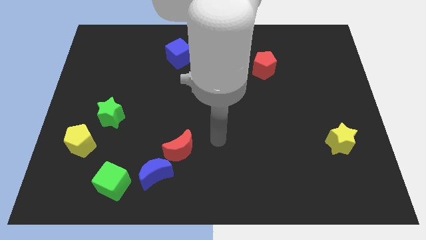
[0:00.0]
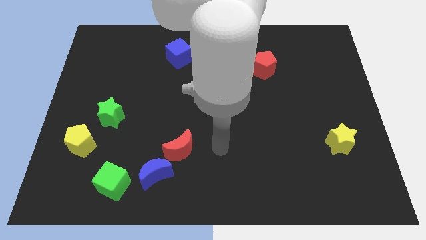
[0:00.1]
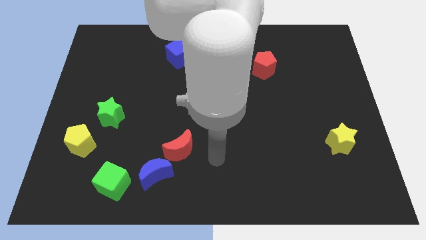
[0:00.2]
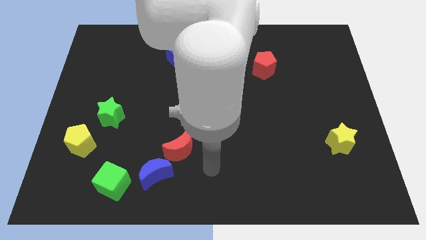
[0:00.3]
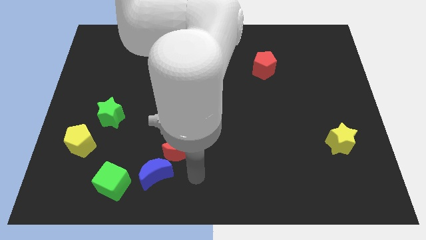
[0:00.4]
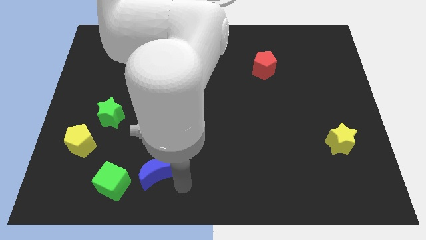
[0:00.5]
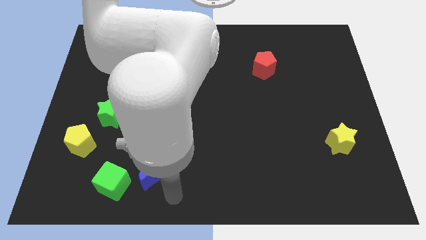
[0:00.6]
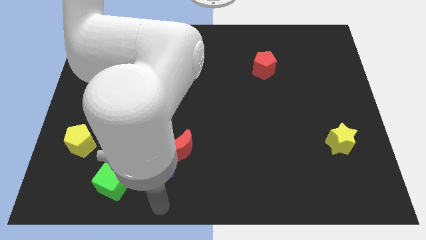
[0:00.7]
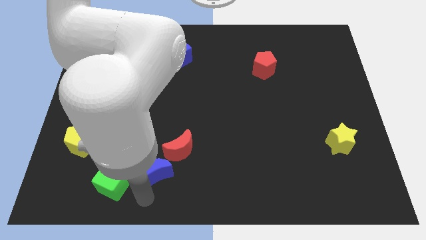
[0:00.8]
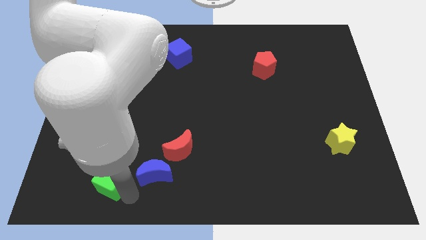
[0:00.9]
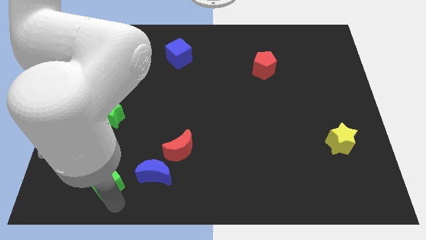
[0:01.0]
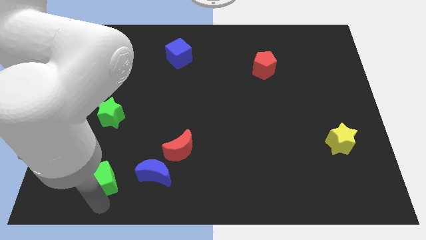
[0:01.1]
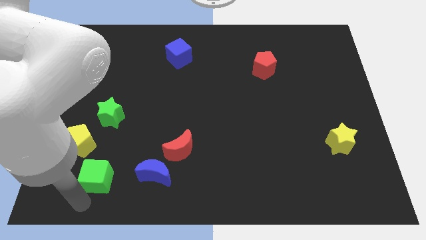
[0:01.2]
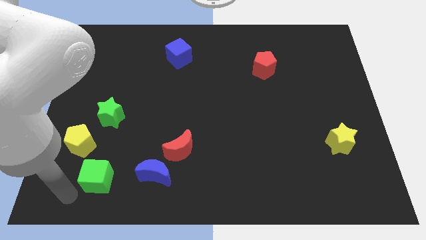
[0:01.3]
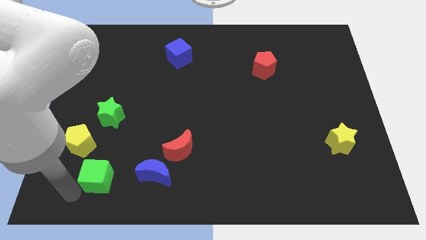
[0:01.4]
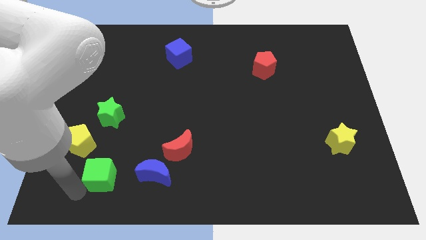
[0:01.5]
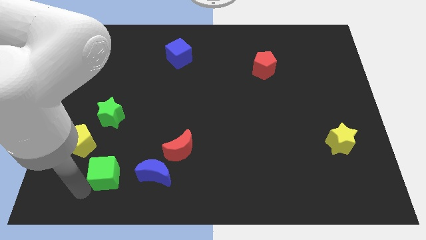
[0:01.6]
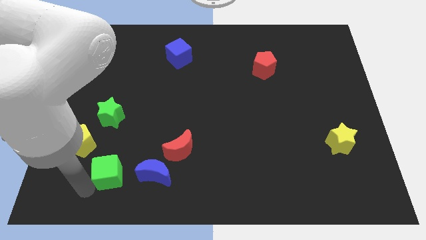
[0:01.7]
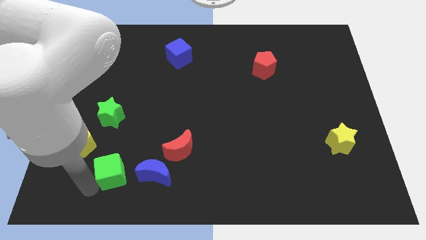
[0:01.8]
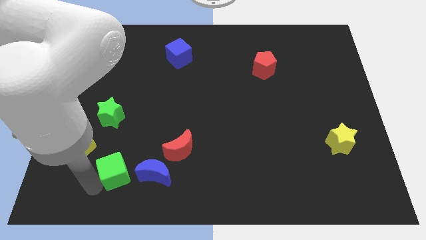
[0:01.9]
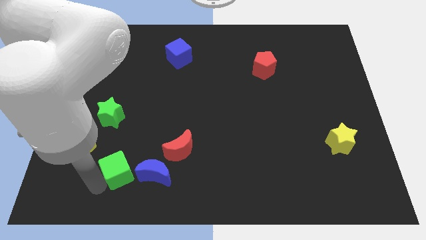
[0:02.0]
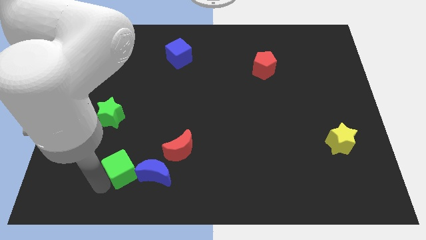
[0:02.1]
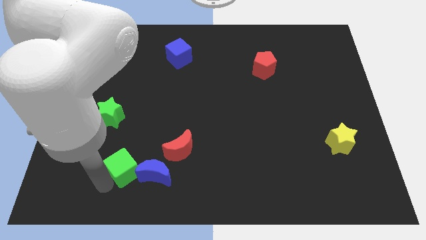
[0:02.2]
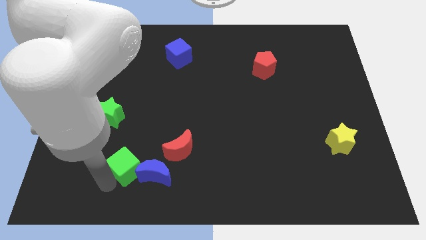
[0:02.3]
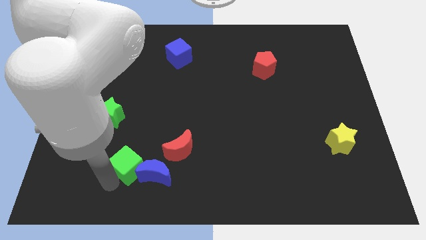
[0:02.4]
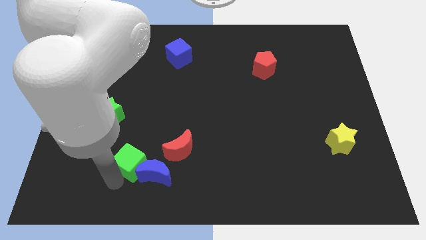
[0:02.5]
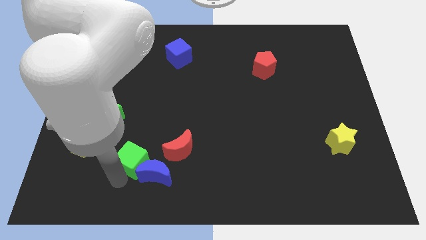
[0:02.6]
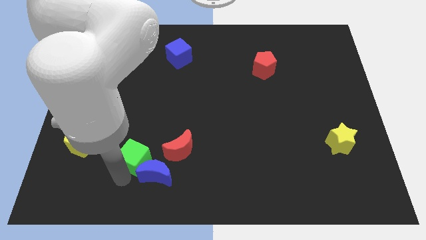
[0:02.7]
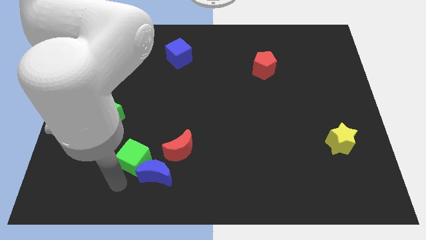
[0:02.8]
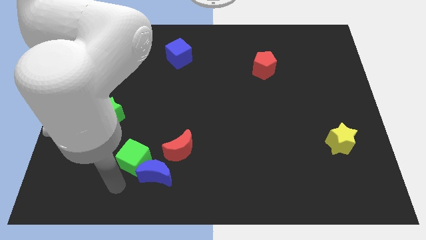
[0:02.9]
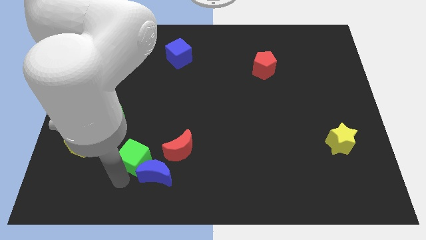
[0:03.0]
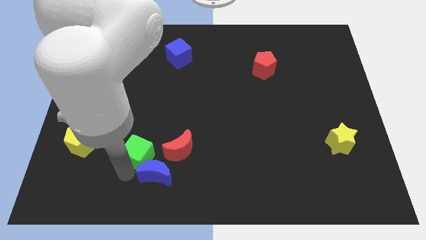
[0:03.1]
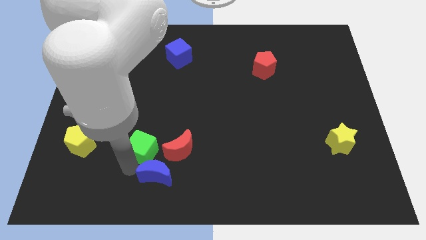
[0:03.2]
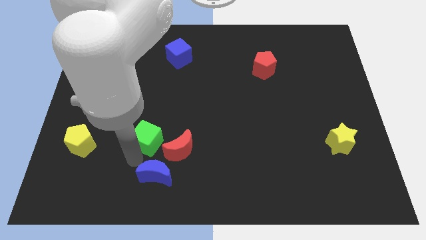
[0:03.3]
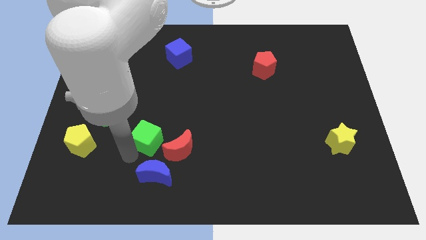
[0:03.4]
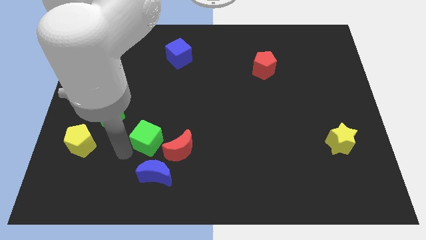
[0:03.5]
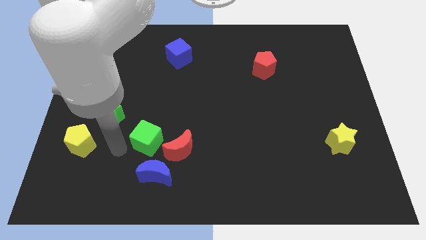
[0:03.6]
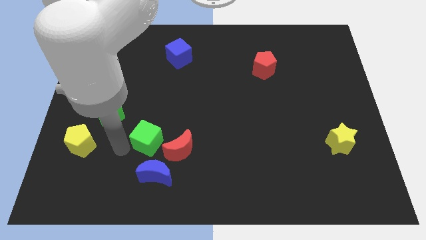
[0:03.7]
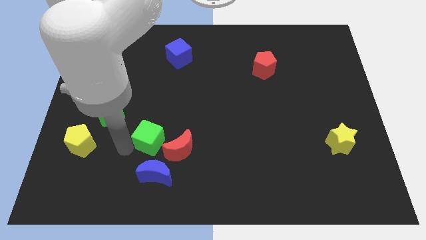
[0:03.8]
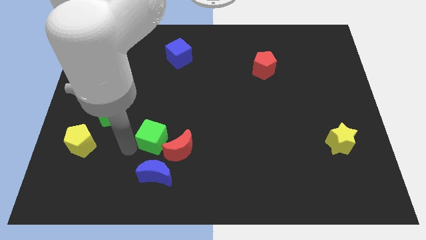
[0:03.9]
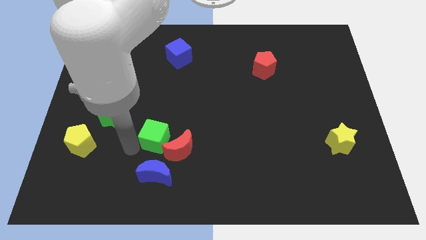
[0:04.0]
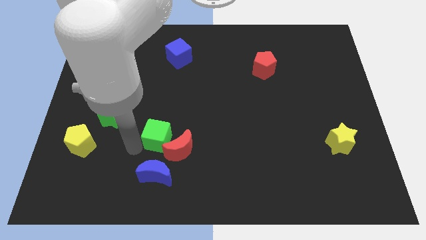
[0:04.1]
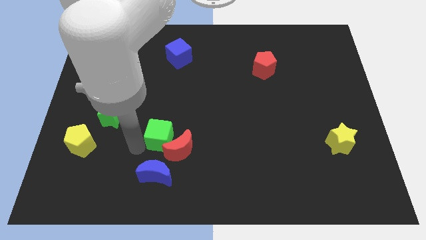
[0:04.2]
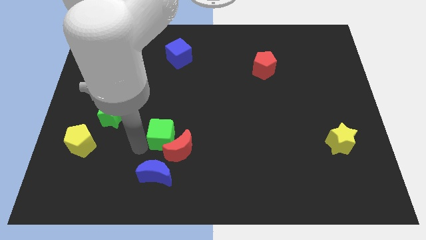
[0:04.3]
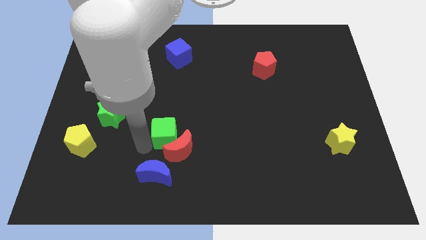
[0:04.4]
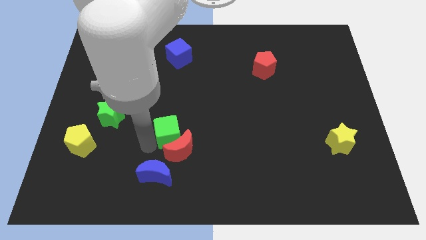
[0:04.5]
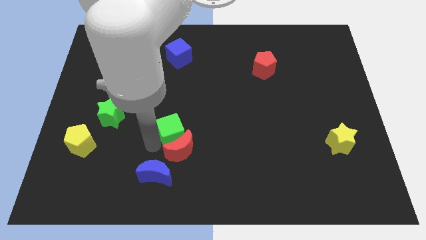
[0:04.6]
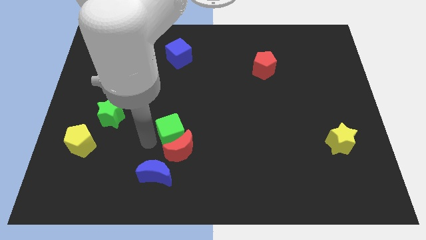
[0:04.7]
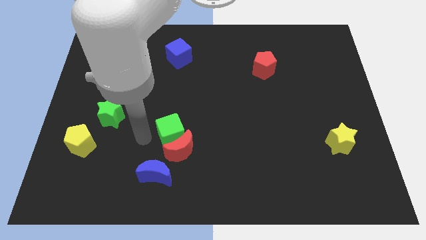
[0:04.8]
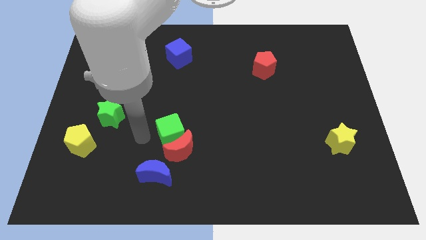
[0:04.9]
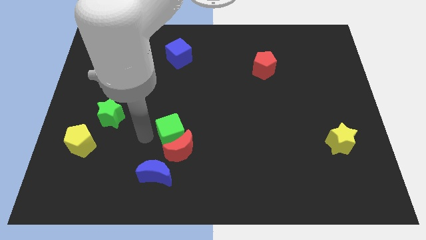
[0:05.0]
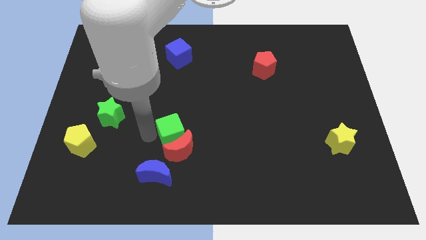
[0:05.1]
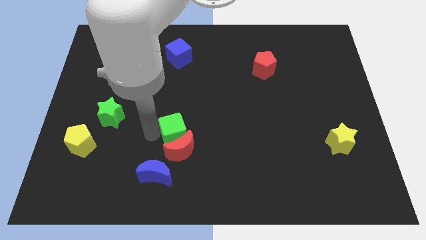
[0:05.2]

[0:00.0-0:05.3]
move the green cube diagonally up and to the right of the red moon

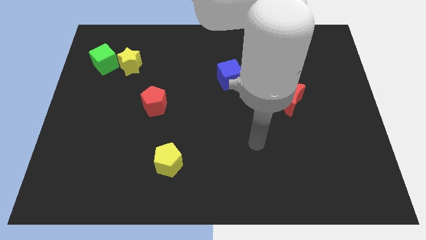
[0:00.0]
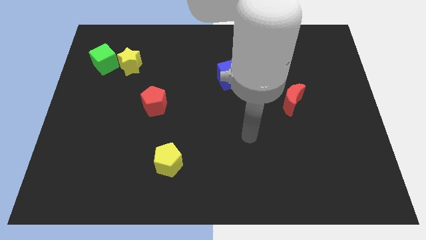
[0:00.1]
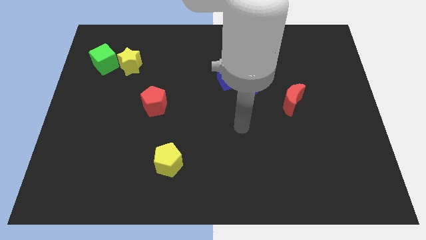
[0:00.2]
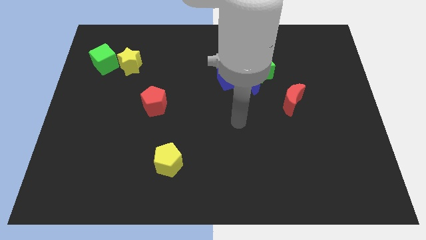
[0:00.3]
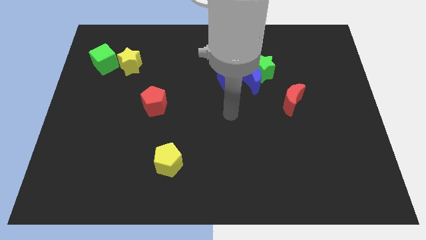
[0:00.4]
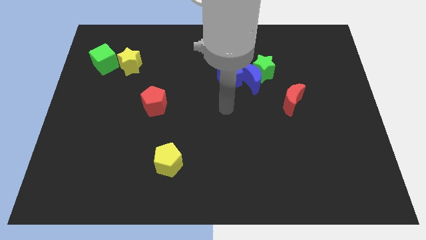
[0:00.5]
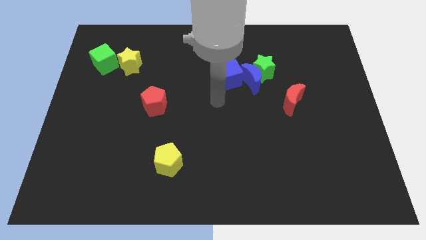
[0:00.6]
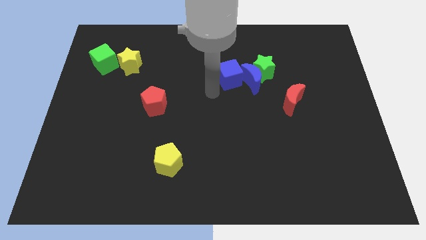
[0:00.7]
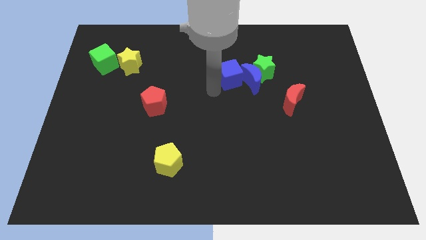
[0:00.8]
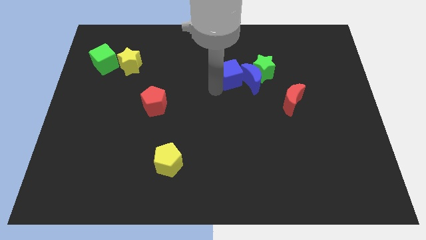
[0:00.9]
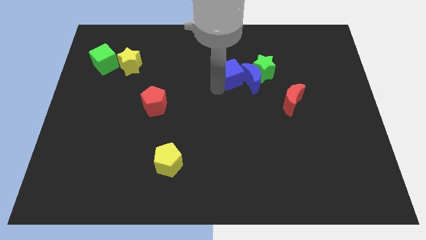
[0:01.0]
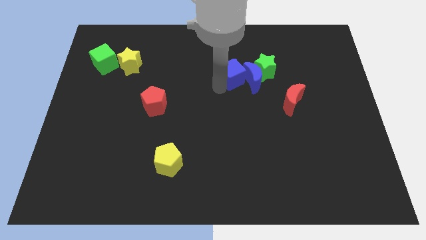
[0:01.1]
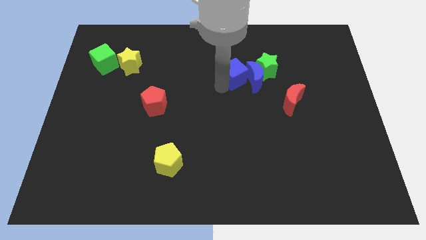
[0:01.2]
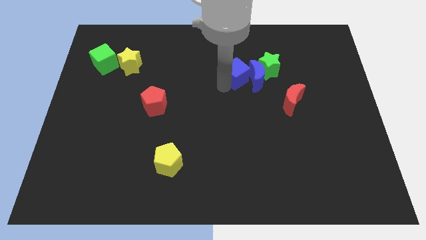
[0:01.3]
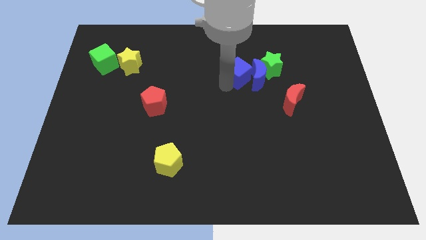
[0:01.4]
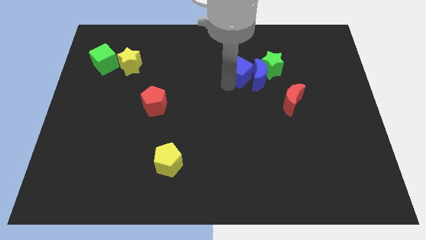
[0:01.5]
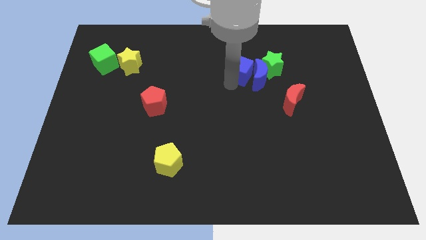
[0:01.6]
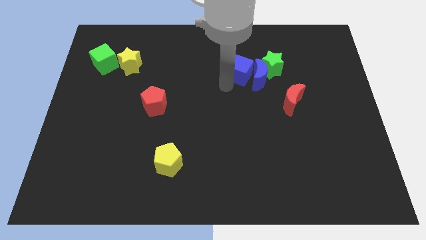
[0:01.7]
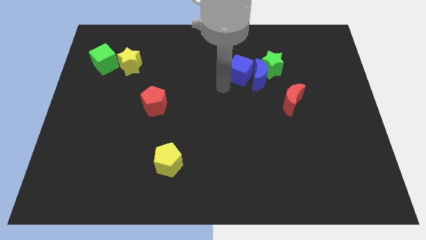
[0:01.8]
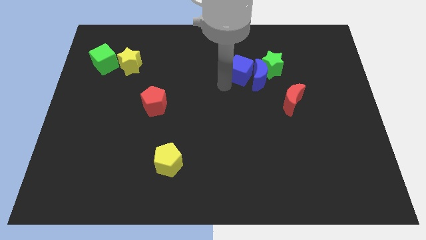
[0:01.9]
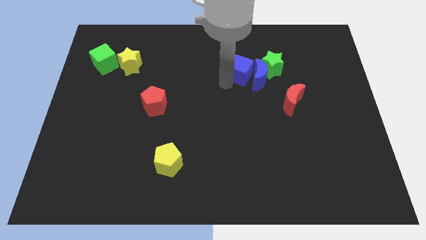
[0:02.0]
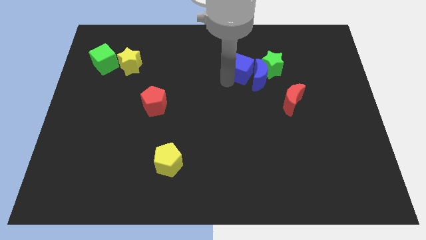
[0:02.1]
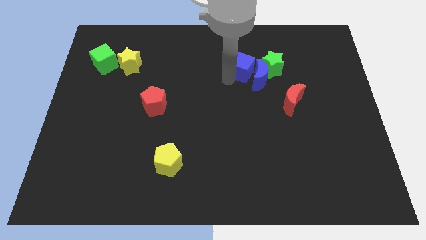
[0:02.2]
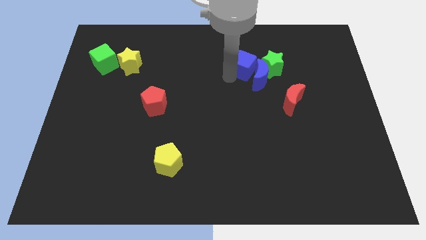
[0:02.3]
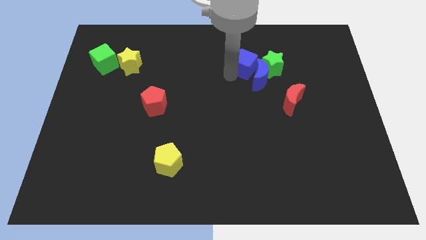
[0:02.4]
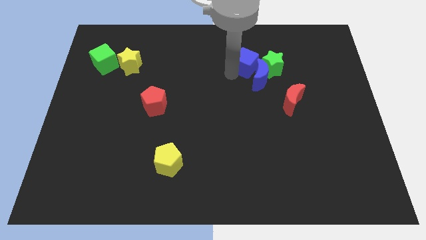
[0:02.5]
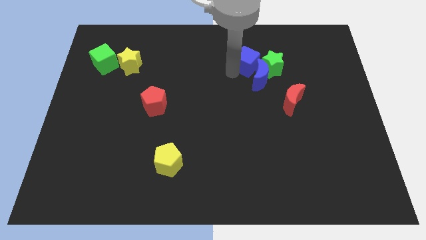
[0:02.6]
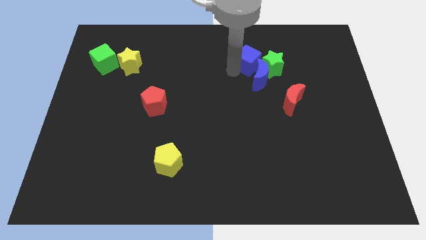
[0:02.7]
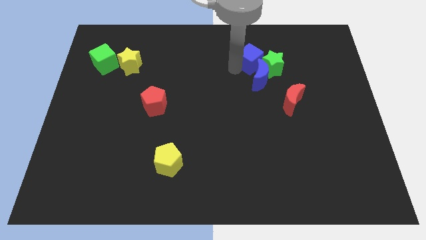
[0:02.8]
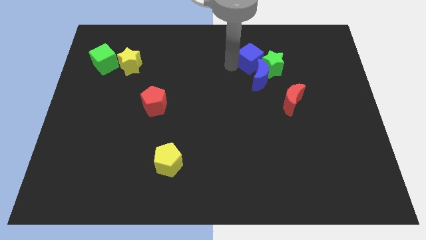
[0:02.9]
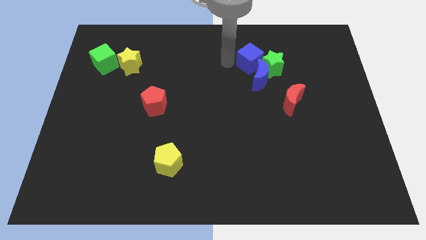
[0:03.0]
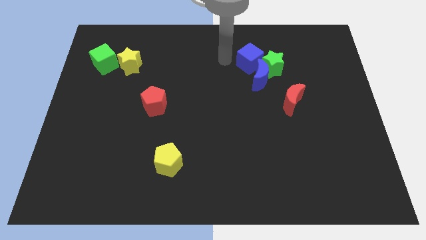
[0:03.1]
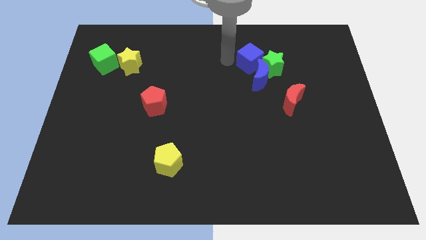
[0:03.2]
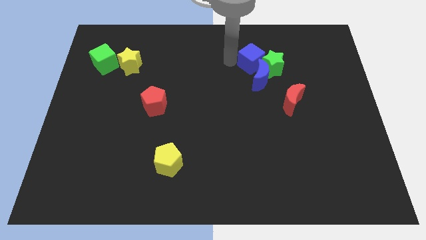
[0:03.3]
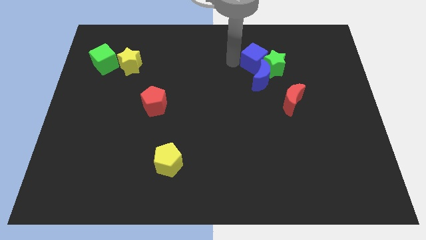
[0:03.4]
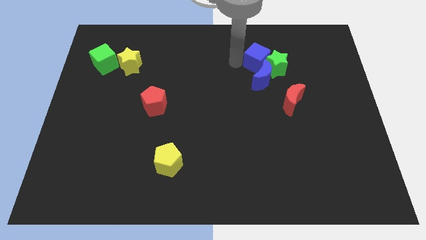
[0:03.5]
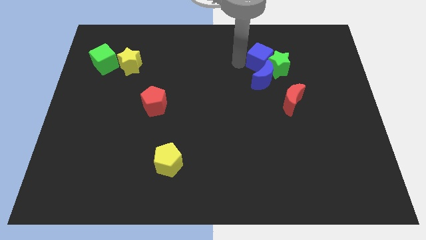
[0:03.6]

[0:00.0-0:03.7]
move the blue cube diagonally up and to the right of the blue moon
